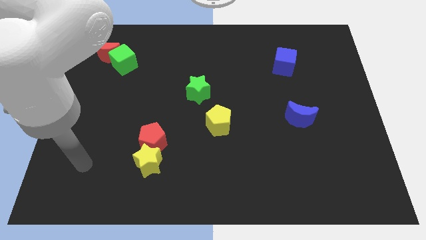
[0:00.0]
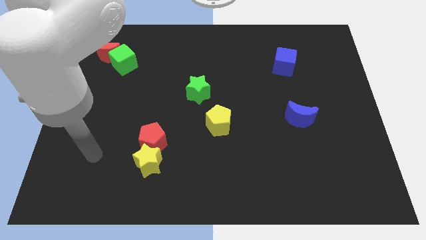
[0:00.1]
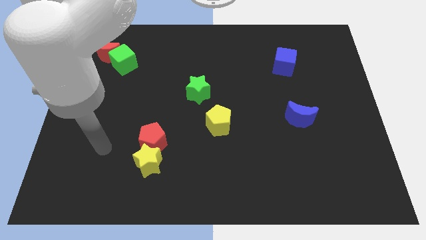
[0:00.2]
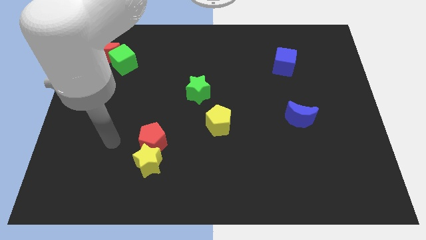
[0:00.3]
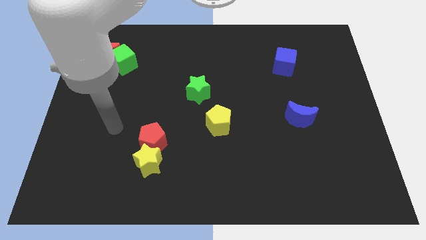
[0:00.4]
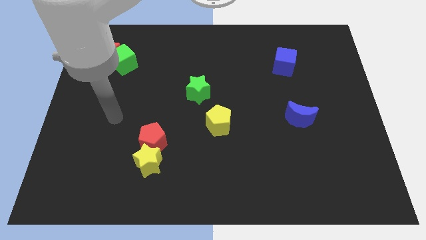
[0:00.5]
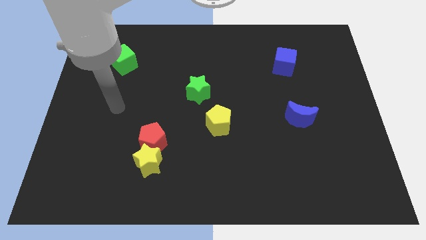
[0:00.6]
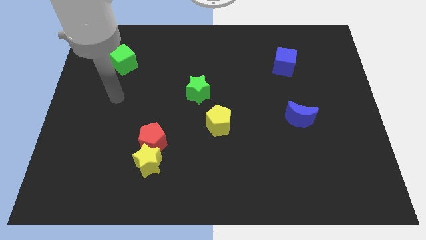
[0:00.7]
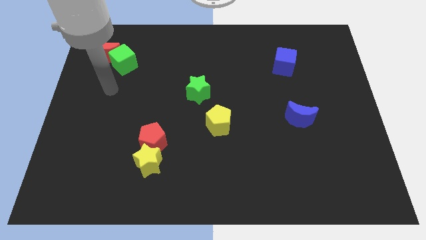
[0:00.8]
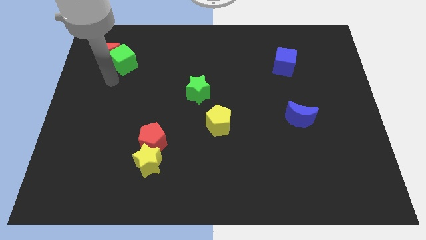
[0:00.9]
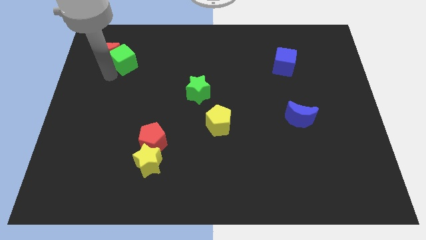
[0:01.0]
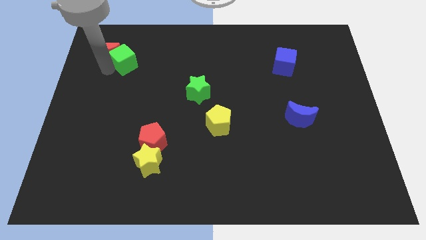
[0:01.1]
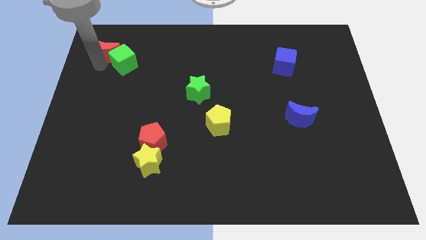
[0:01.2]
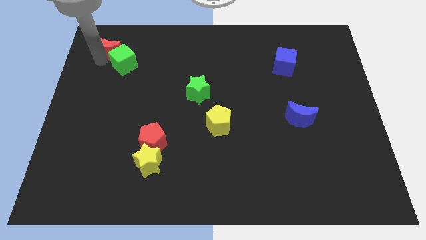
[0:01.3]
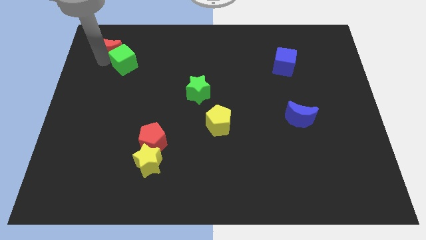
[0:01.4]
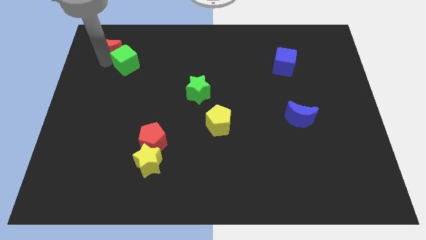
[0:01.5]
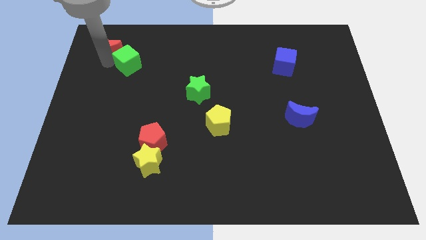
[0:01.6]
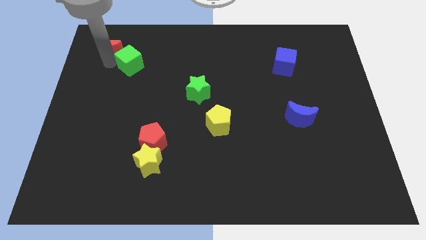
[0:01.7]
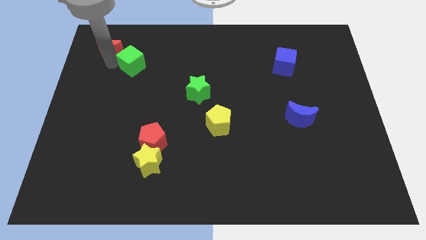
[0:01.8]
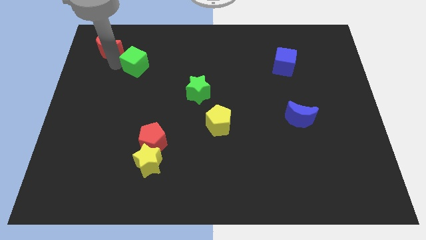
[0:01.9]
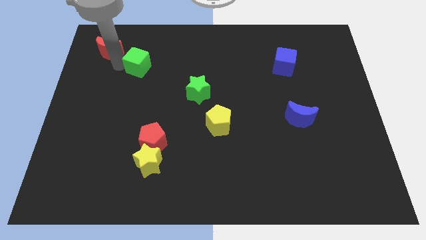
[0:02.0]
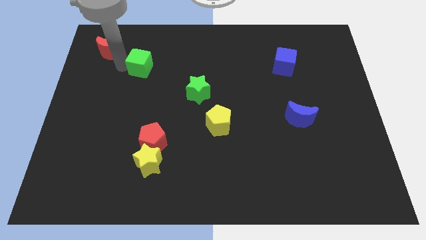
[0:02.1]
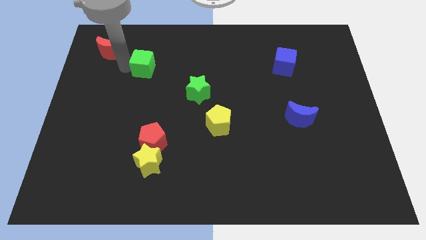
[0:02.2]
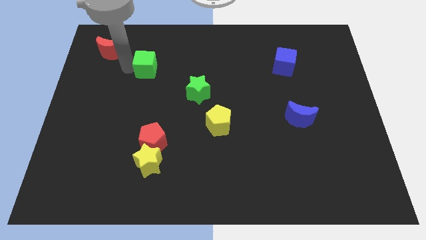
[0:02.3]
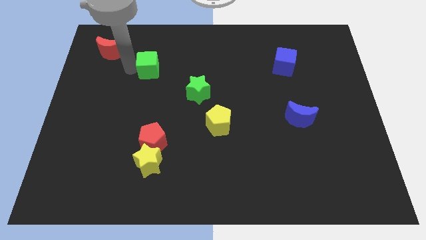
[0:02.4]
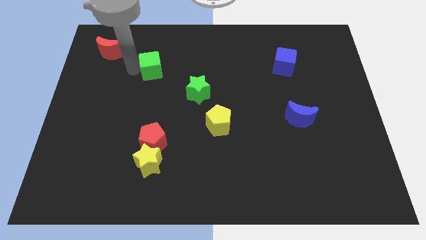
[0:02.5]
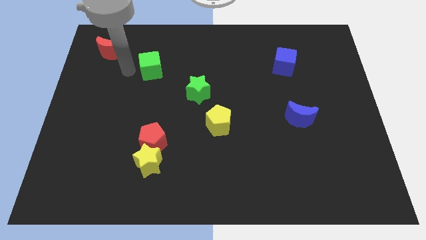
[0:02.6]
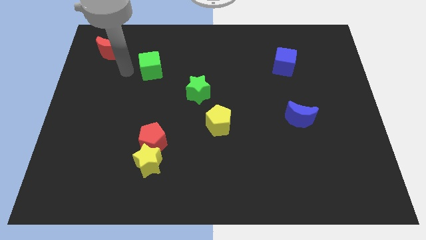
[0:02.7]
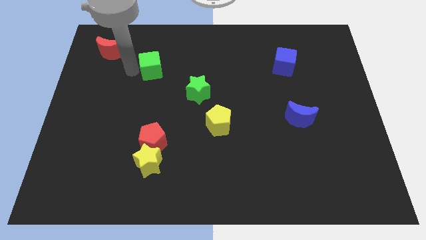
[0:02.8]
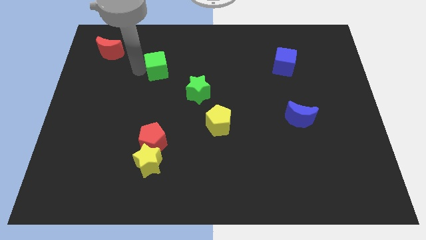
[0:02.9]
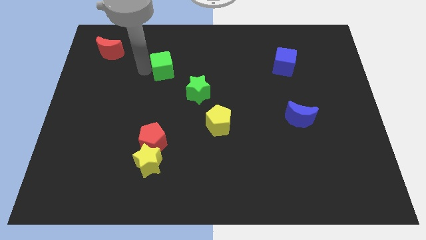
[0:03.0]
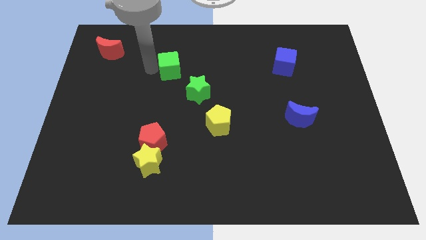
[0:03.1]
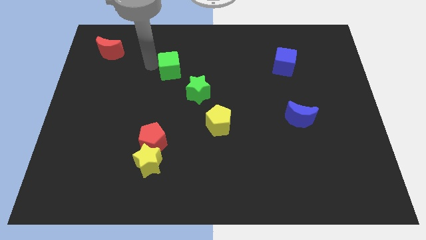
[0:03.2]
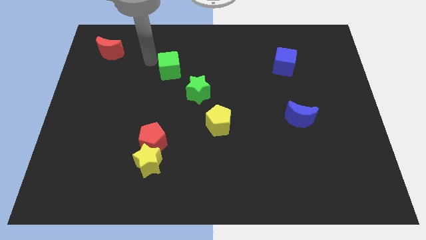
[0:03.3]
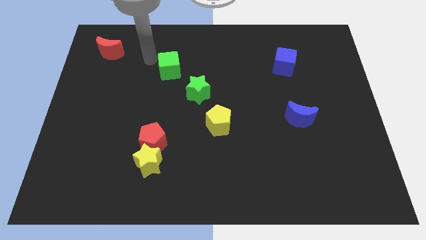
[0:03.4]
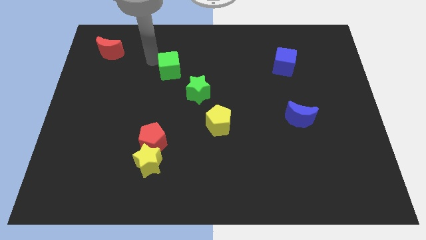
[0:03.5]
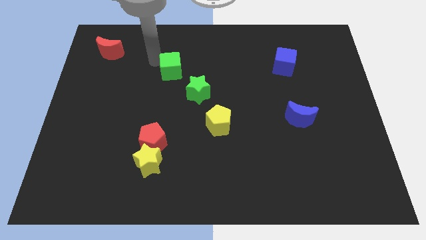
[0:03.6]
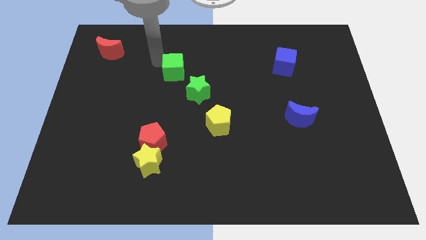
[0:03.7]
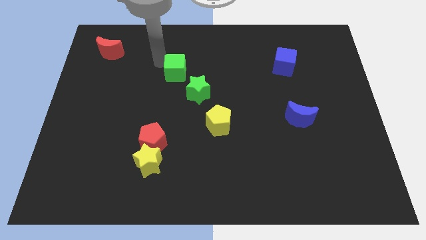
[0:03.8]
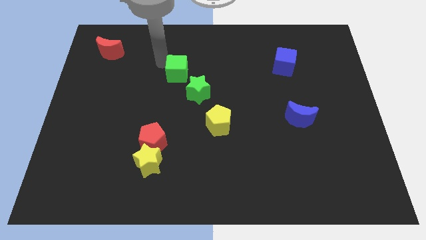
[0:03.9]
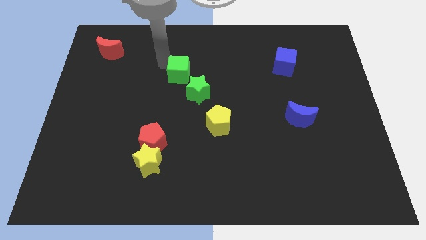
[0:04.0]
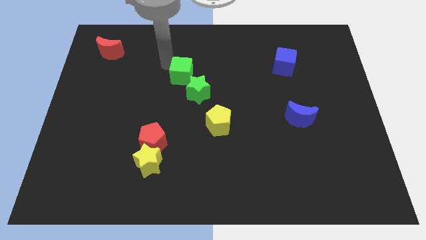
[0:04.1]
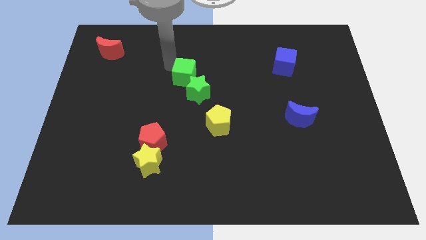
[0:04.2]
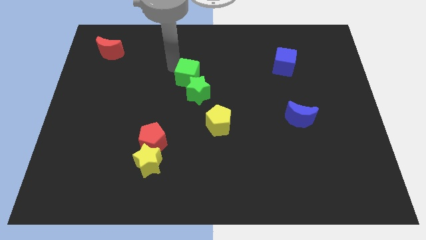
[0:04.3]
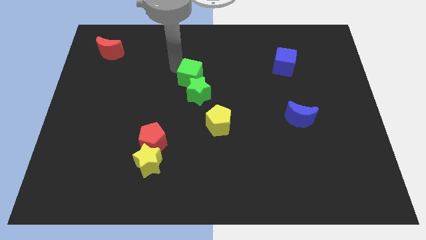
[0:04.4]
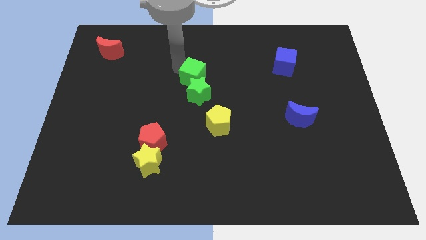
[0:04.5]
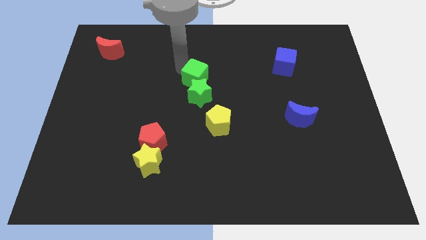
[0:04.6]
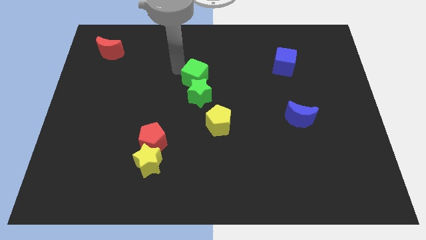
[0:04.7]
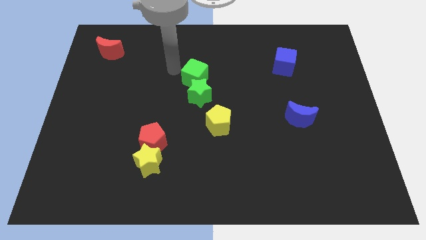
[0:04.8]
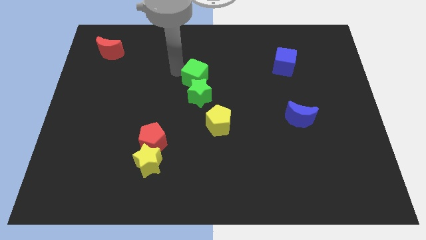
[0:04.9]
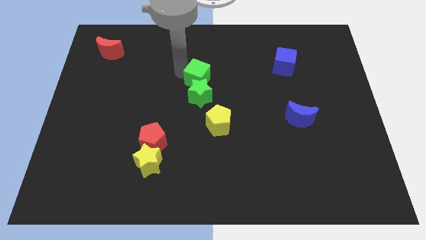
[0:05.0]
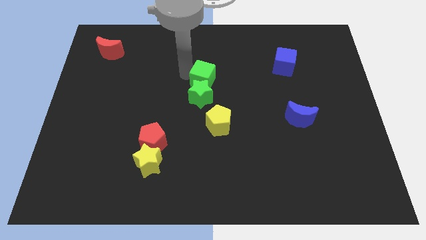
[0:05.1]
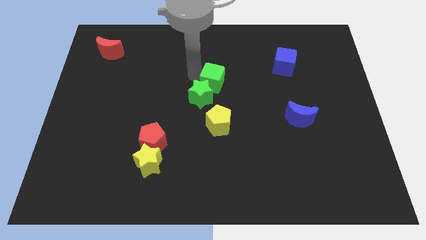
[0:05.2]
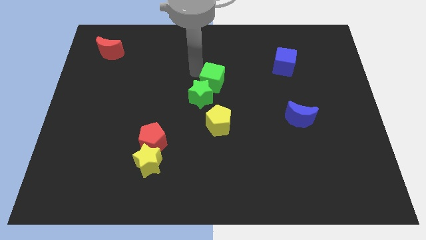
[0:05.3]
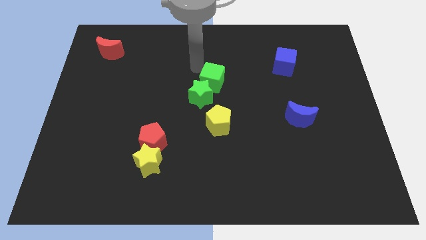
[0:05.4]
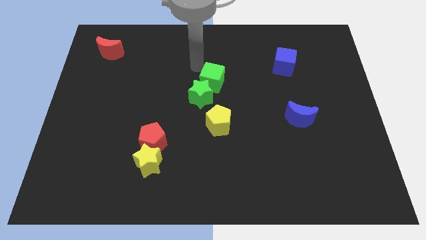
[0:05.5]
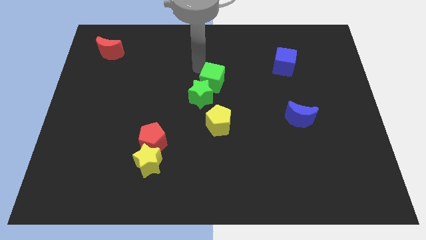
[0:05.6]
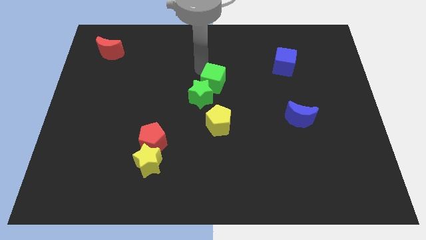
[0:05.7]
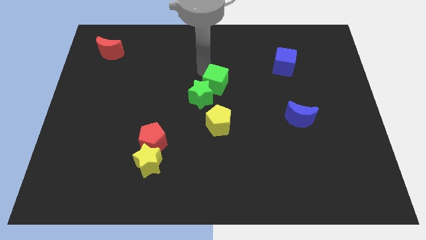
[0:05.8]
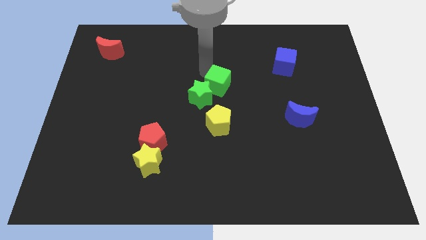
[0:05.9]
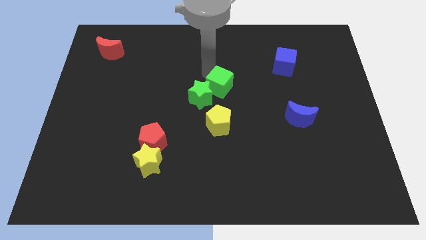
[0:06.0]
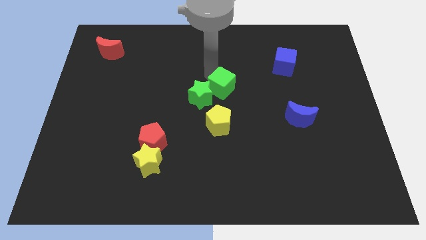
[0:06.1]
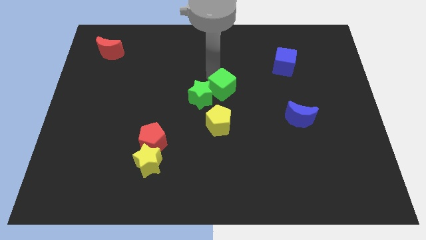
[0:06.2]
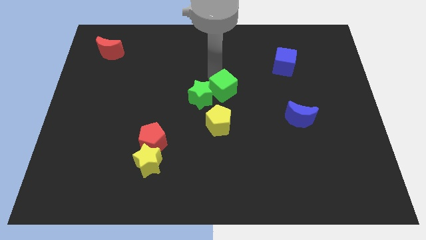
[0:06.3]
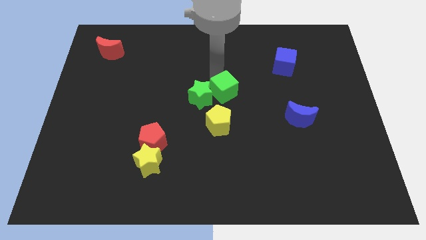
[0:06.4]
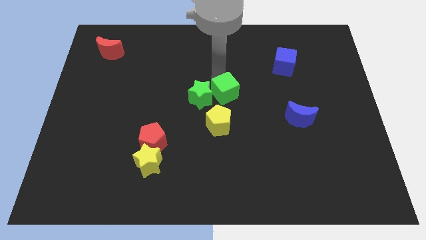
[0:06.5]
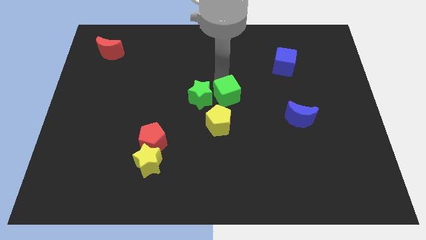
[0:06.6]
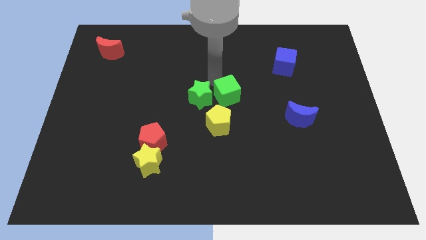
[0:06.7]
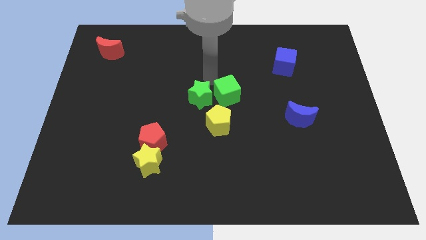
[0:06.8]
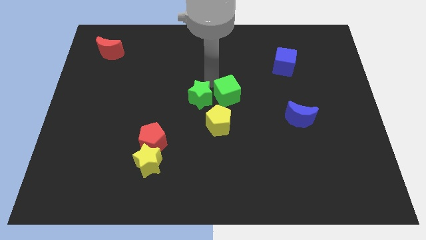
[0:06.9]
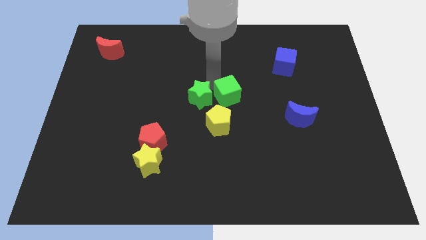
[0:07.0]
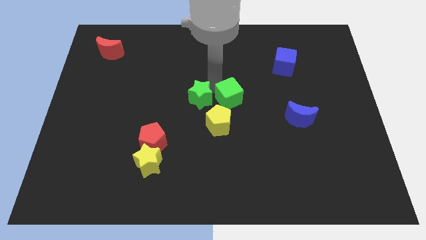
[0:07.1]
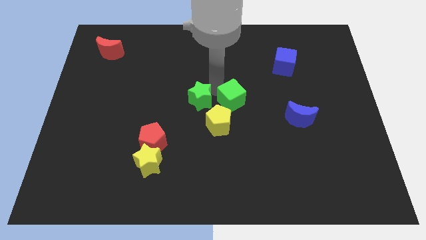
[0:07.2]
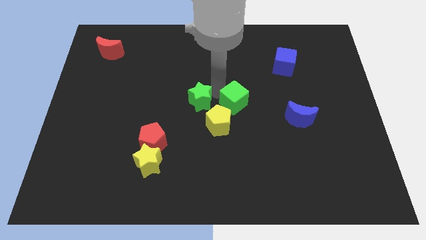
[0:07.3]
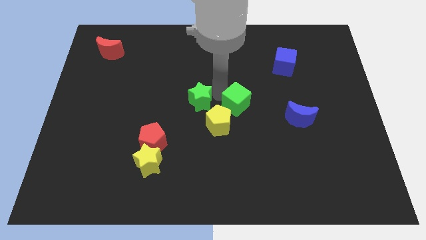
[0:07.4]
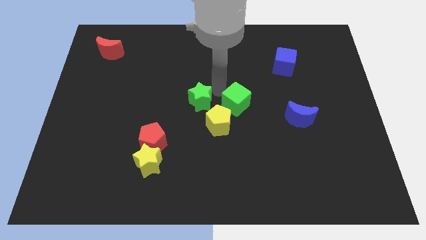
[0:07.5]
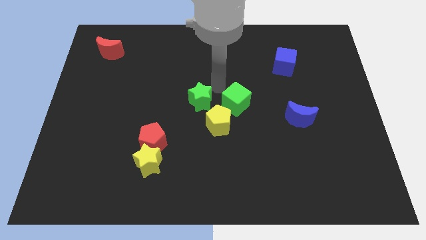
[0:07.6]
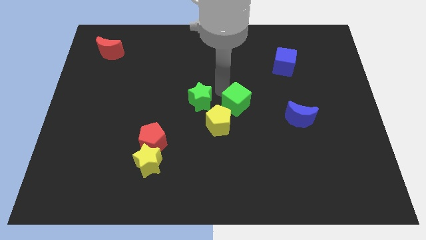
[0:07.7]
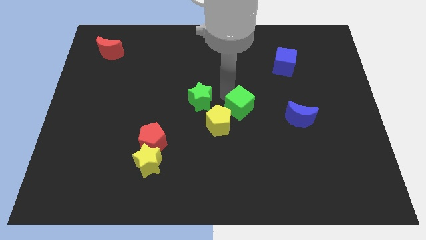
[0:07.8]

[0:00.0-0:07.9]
move the green cube left of the blue moon
